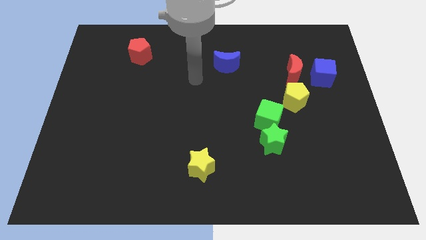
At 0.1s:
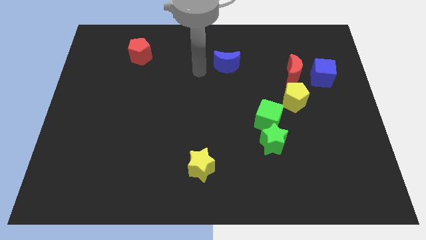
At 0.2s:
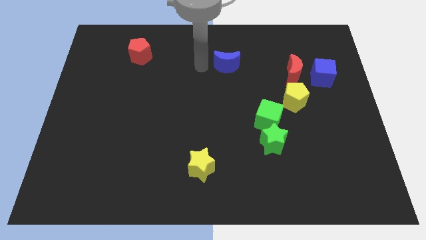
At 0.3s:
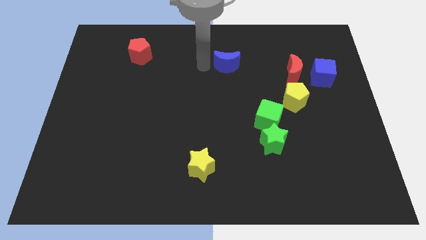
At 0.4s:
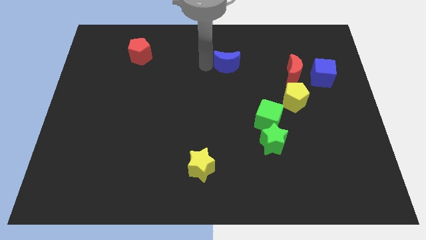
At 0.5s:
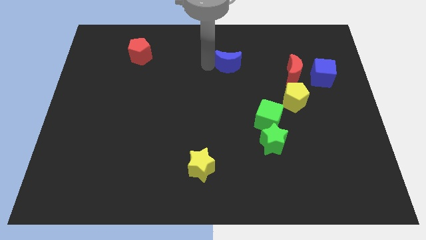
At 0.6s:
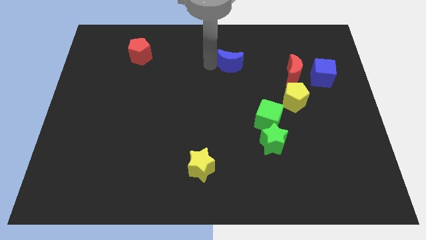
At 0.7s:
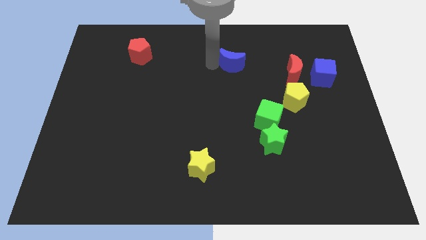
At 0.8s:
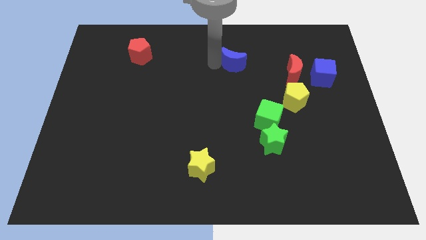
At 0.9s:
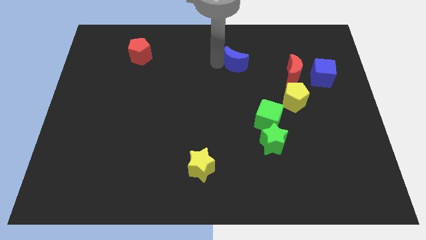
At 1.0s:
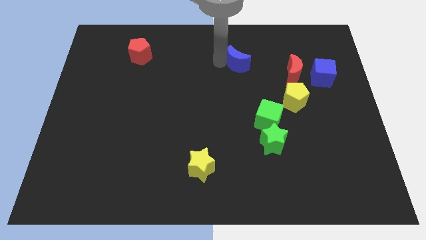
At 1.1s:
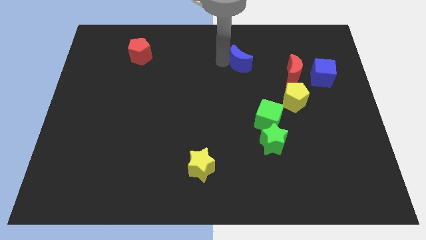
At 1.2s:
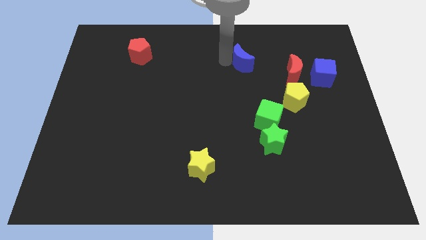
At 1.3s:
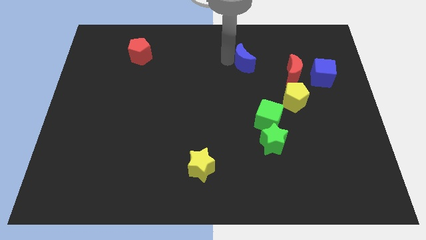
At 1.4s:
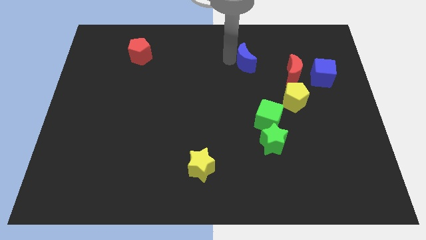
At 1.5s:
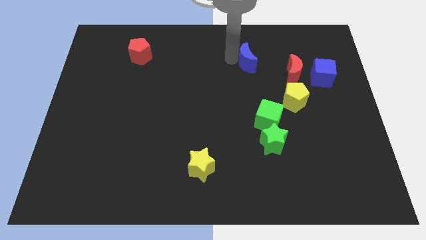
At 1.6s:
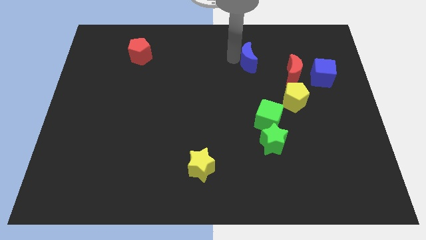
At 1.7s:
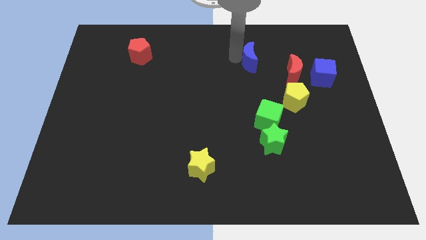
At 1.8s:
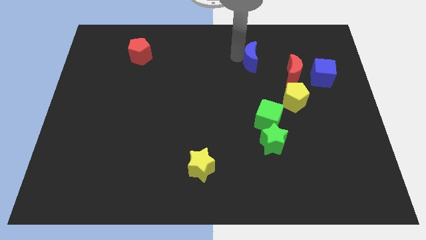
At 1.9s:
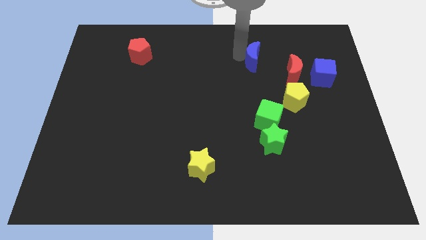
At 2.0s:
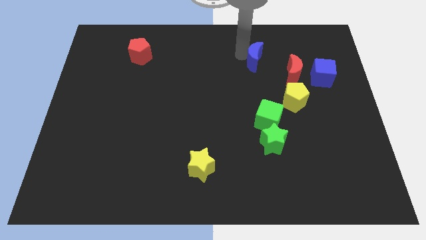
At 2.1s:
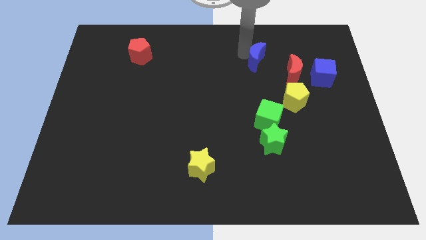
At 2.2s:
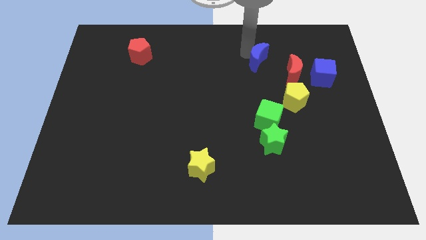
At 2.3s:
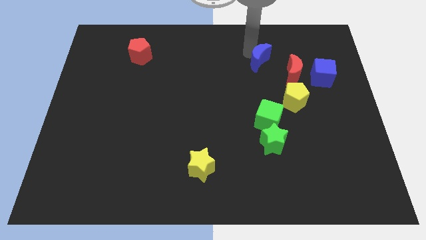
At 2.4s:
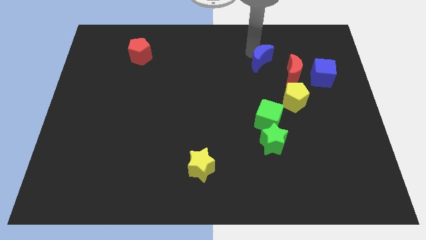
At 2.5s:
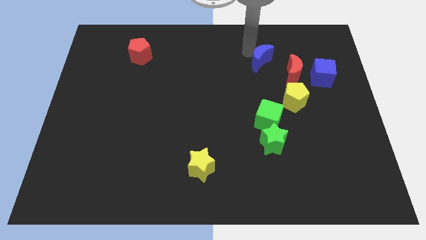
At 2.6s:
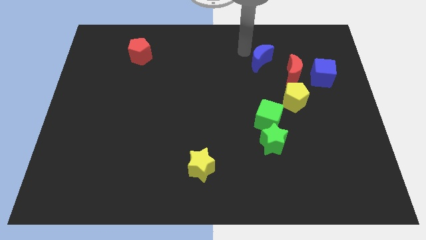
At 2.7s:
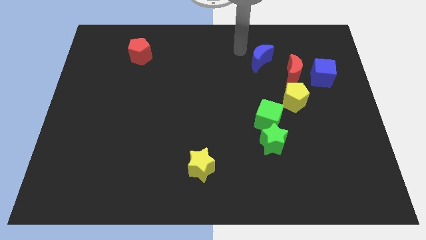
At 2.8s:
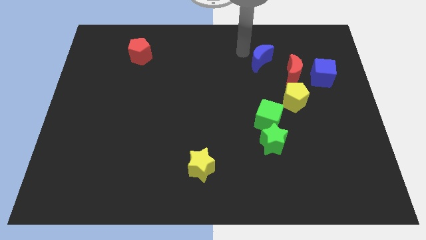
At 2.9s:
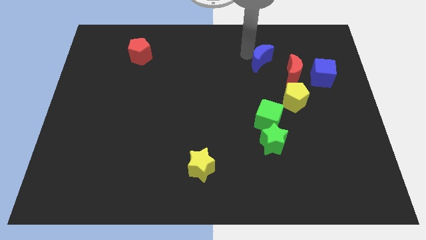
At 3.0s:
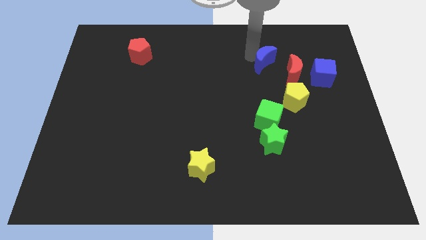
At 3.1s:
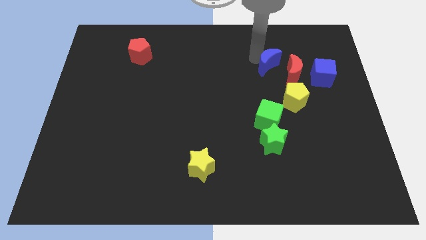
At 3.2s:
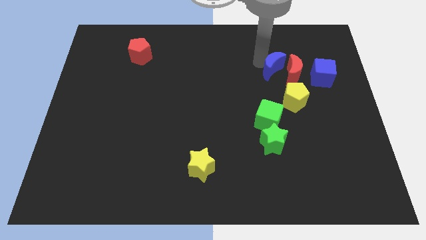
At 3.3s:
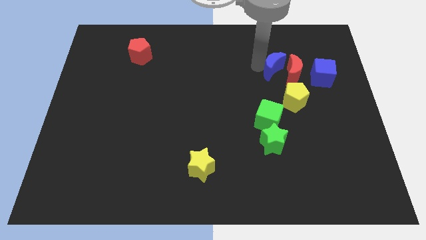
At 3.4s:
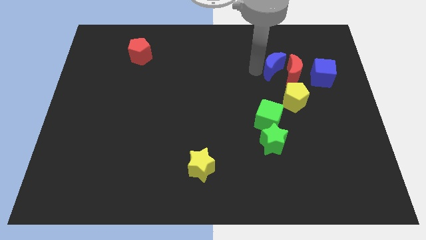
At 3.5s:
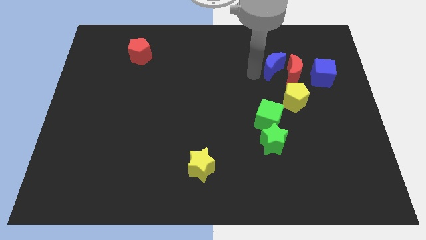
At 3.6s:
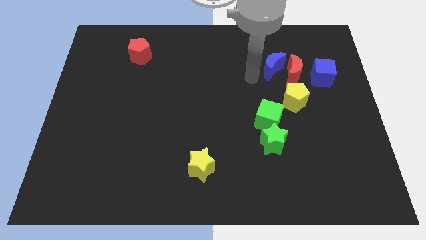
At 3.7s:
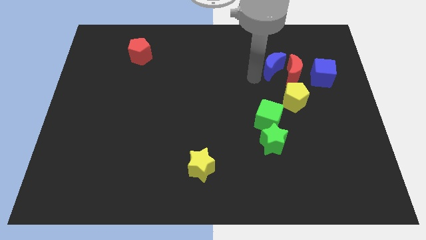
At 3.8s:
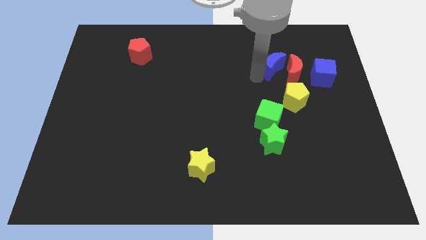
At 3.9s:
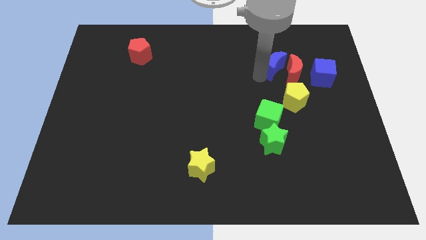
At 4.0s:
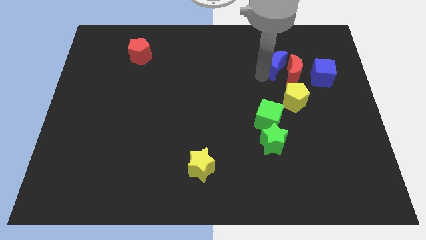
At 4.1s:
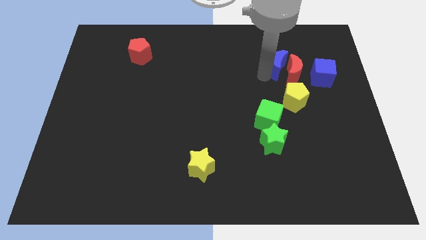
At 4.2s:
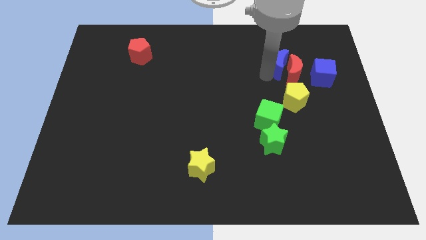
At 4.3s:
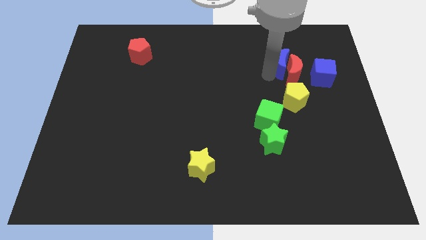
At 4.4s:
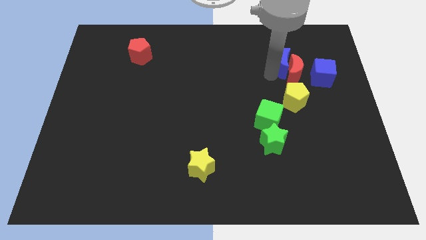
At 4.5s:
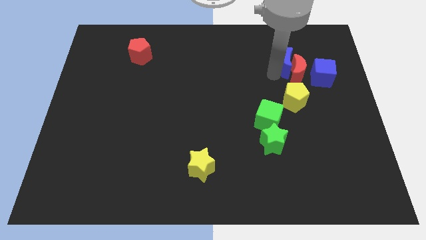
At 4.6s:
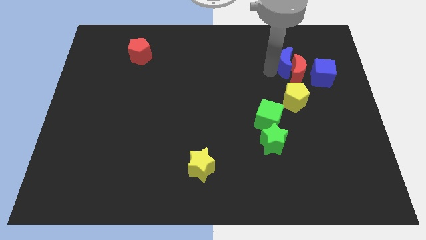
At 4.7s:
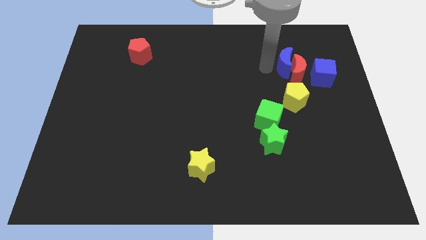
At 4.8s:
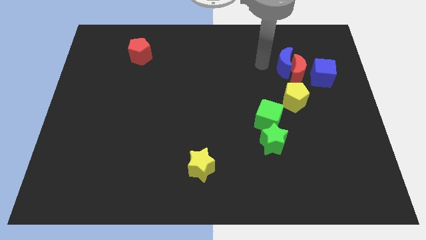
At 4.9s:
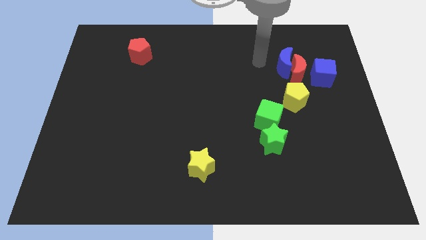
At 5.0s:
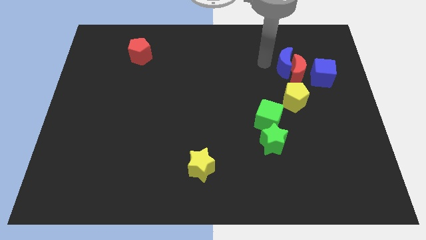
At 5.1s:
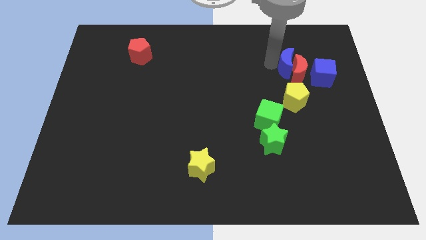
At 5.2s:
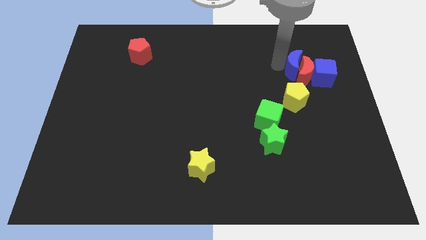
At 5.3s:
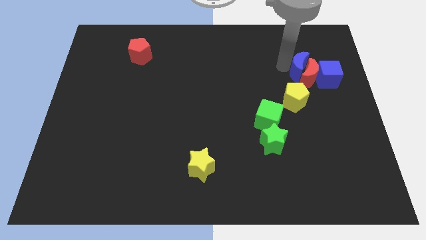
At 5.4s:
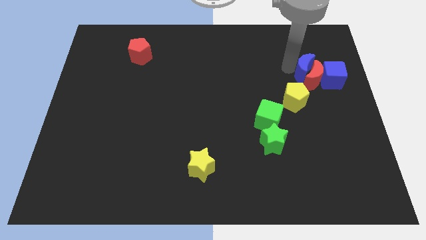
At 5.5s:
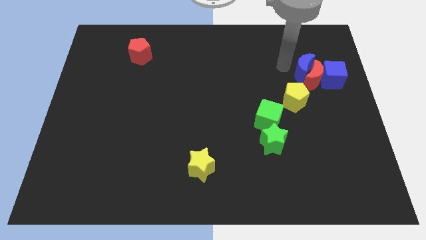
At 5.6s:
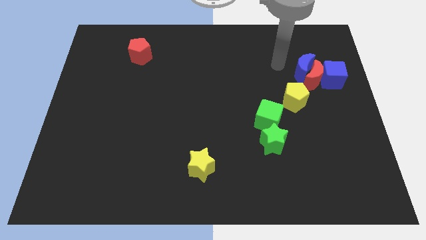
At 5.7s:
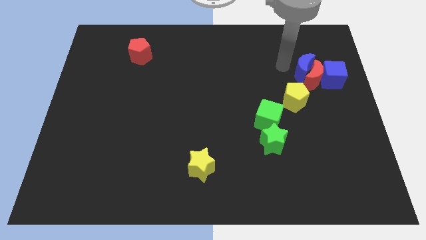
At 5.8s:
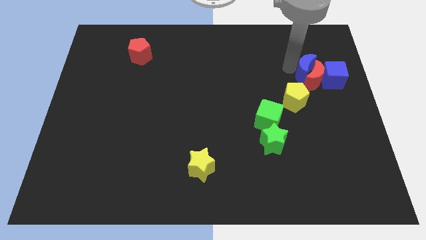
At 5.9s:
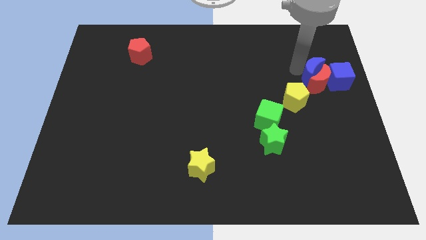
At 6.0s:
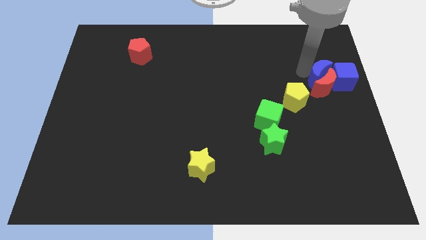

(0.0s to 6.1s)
move the blue moon next to the blue cube
